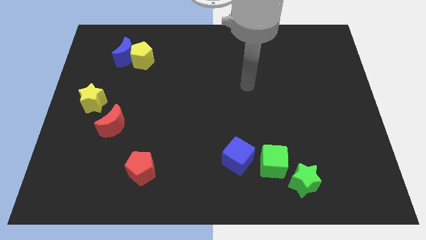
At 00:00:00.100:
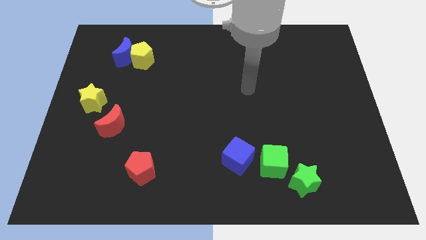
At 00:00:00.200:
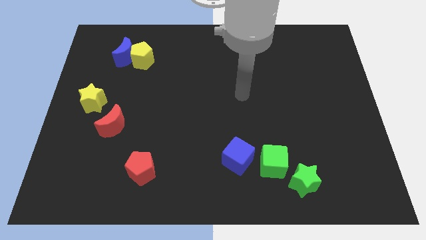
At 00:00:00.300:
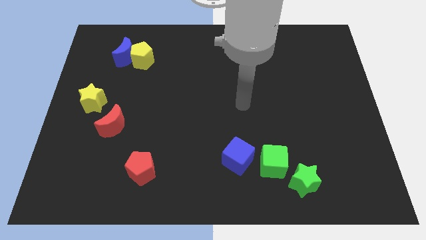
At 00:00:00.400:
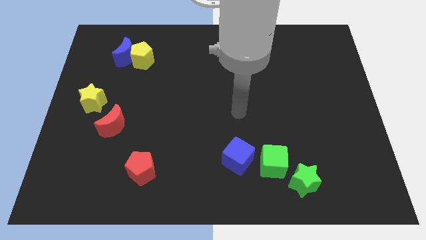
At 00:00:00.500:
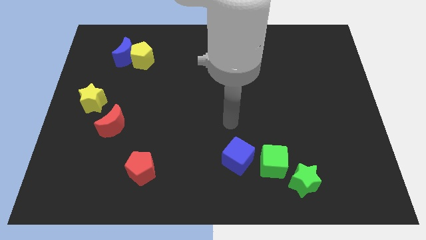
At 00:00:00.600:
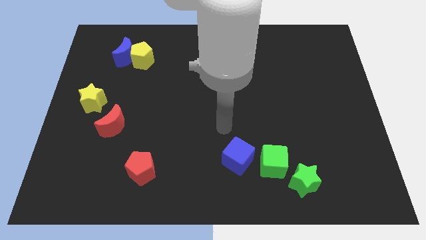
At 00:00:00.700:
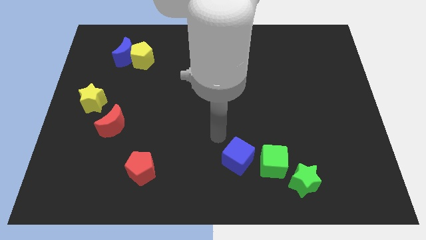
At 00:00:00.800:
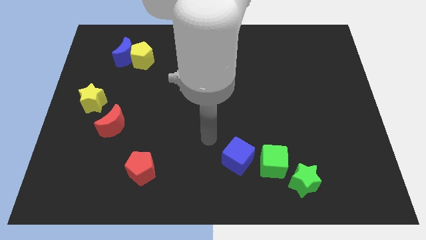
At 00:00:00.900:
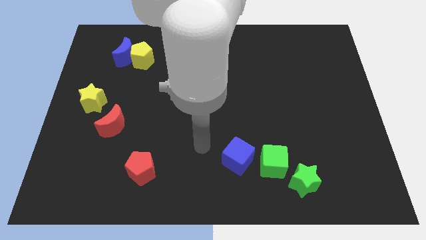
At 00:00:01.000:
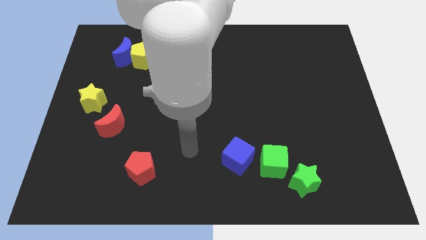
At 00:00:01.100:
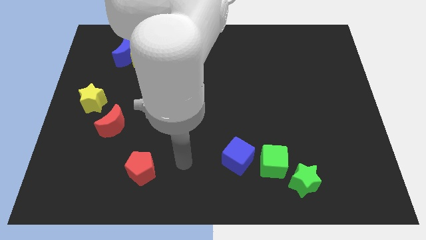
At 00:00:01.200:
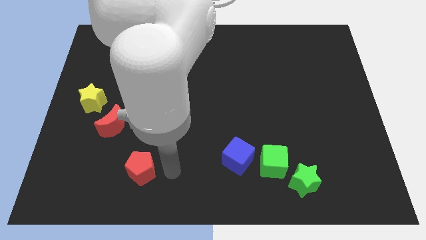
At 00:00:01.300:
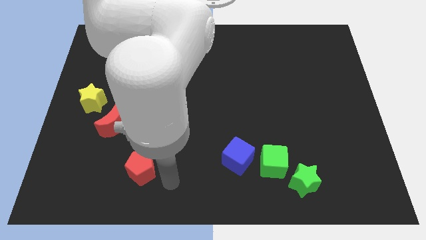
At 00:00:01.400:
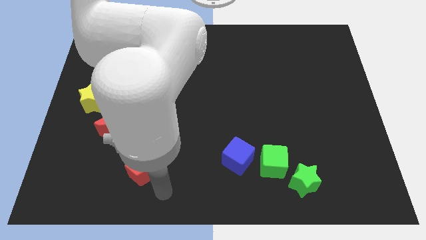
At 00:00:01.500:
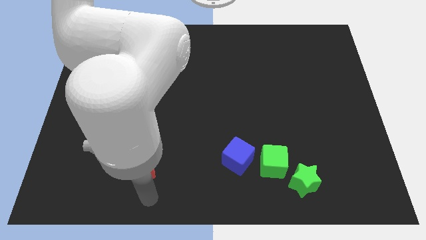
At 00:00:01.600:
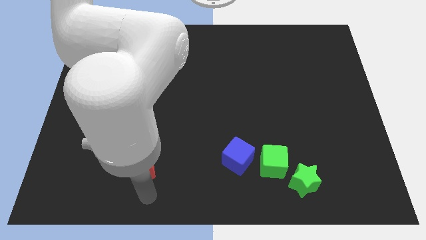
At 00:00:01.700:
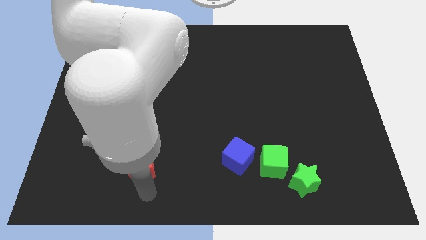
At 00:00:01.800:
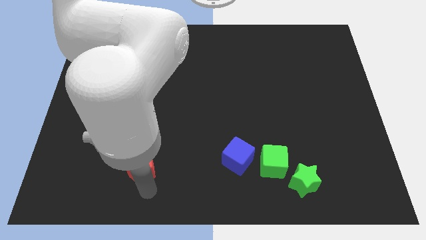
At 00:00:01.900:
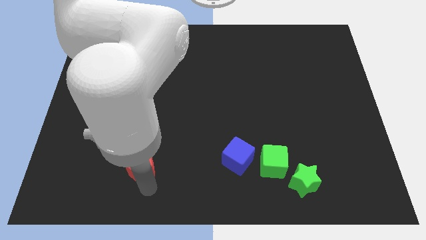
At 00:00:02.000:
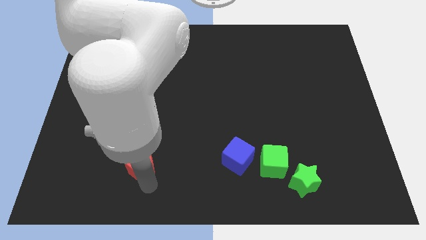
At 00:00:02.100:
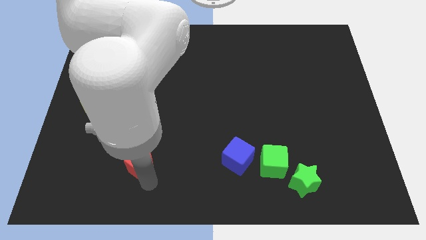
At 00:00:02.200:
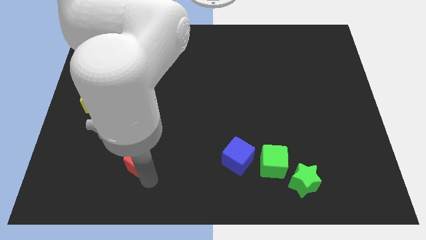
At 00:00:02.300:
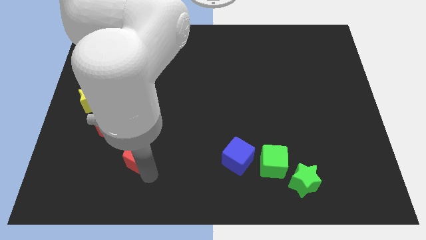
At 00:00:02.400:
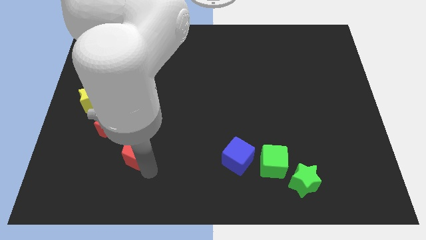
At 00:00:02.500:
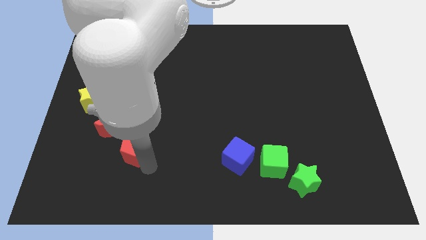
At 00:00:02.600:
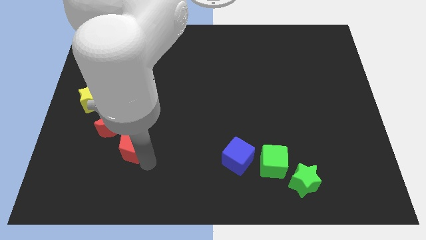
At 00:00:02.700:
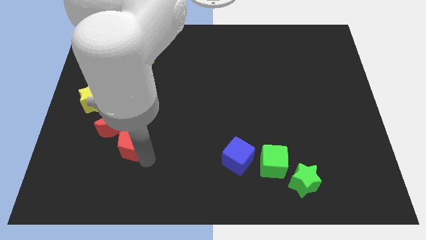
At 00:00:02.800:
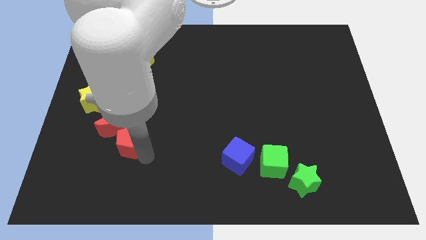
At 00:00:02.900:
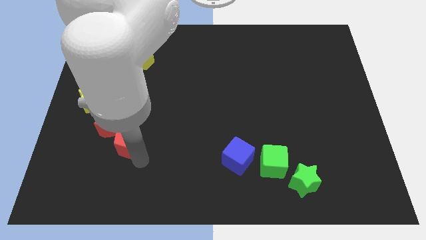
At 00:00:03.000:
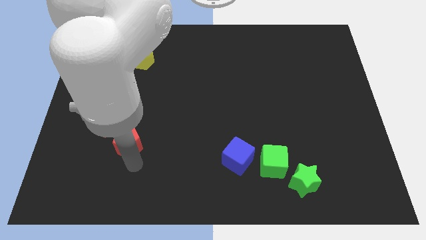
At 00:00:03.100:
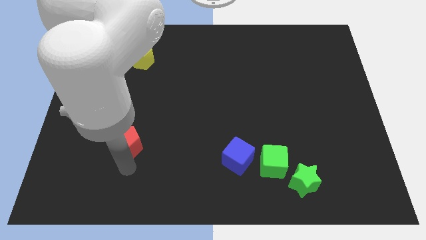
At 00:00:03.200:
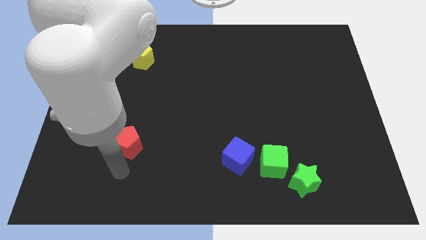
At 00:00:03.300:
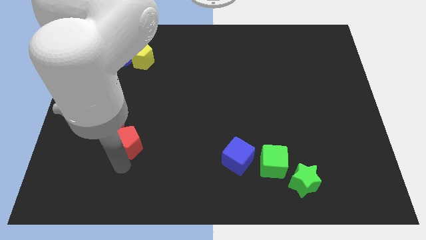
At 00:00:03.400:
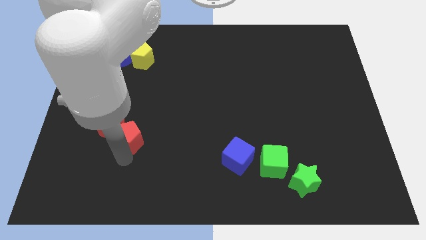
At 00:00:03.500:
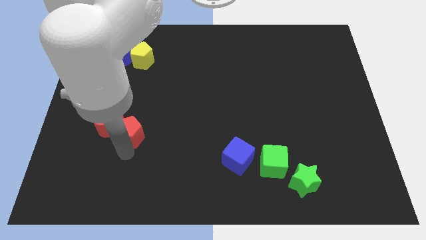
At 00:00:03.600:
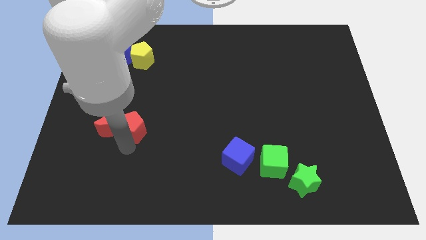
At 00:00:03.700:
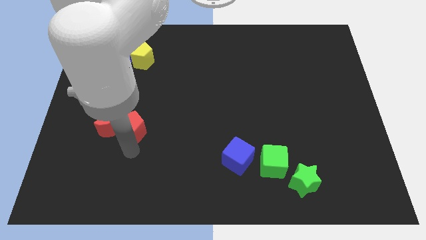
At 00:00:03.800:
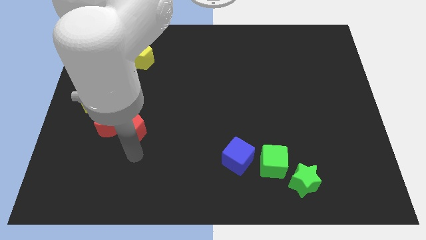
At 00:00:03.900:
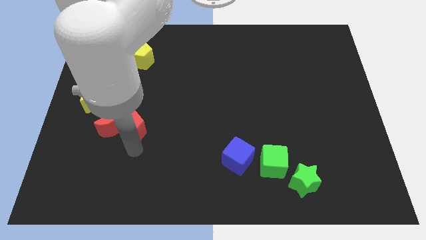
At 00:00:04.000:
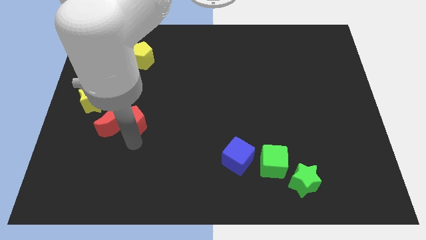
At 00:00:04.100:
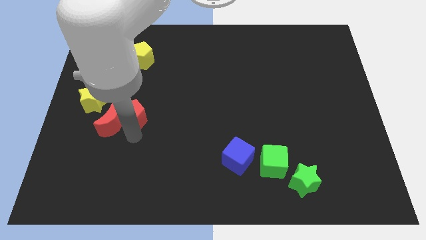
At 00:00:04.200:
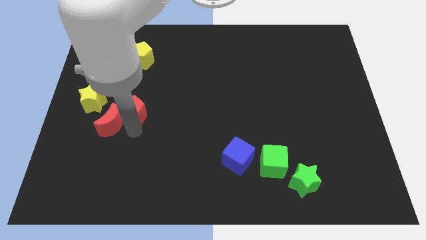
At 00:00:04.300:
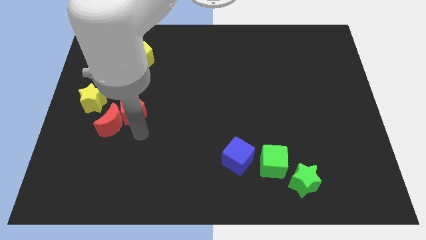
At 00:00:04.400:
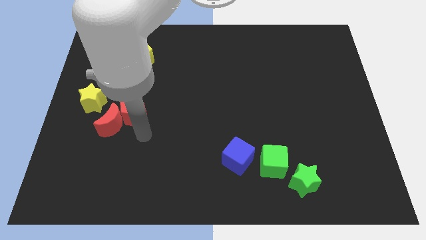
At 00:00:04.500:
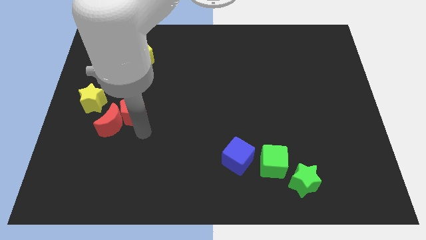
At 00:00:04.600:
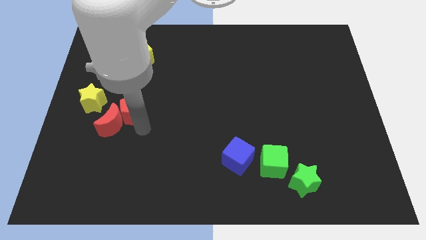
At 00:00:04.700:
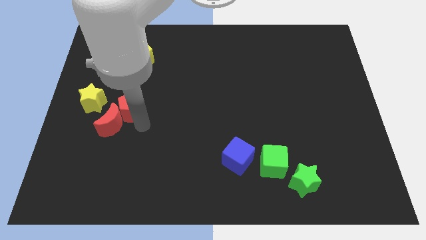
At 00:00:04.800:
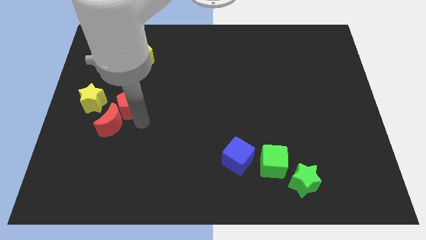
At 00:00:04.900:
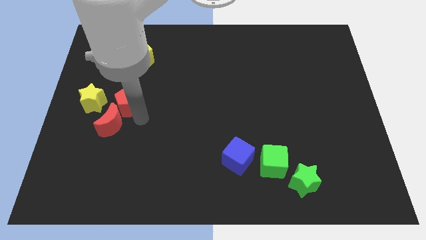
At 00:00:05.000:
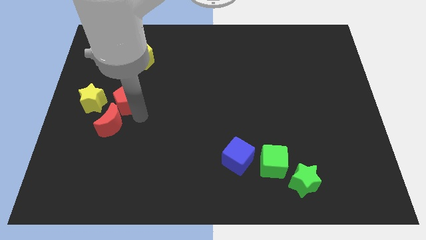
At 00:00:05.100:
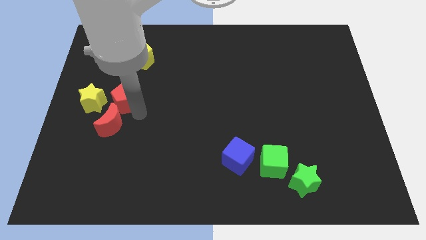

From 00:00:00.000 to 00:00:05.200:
put the red pentagon to the top right side of the yellow star
